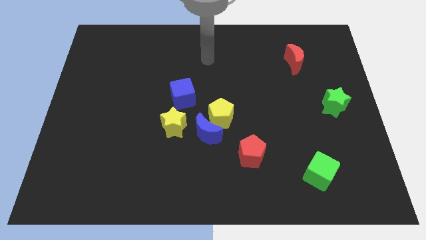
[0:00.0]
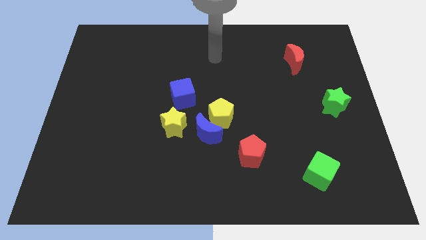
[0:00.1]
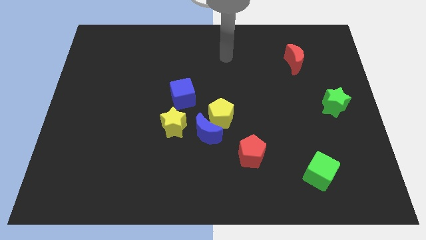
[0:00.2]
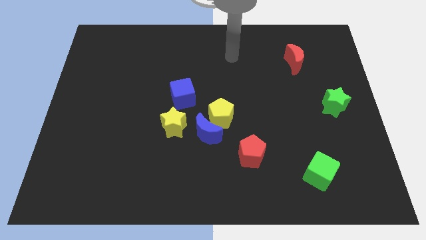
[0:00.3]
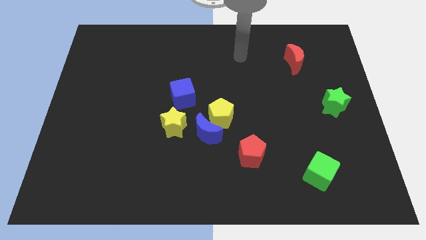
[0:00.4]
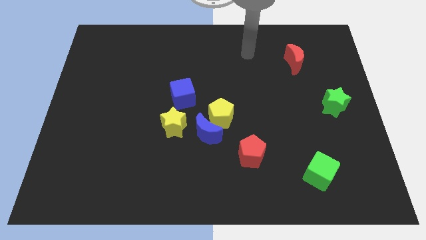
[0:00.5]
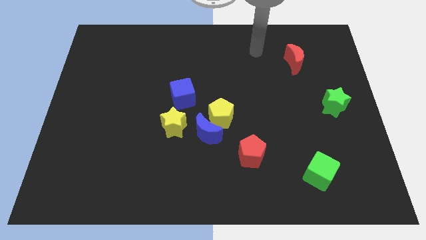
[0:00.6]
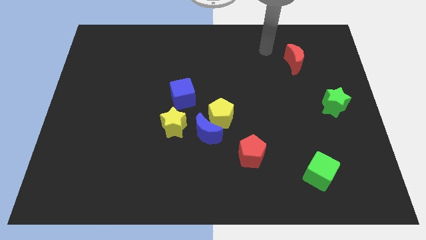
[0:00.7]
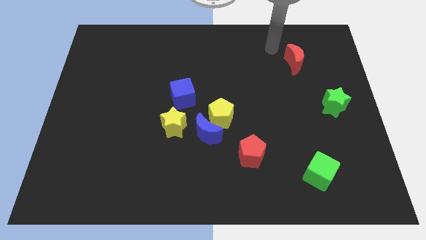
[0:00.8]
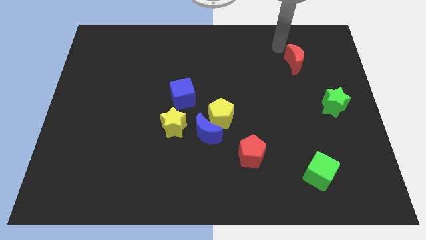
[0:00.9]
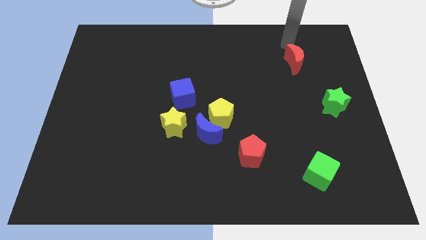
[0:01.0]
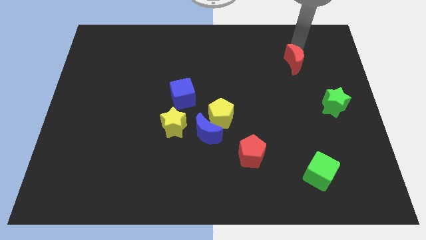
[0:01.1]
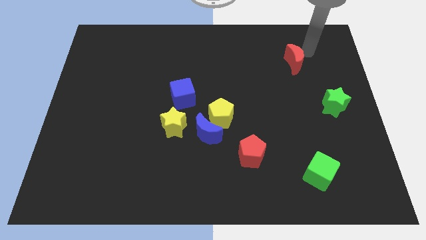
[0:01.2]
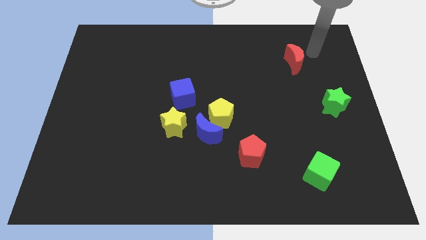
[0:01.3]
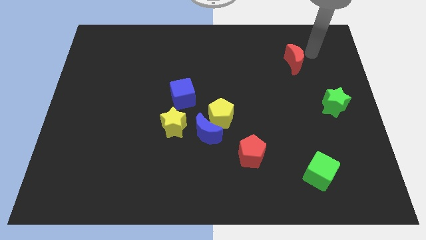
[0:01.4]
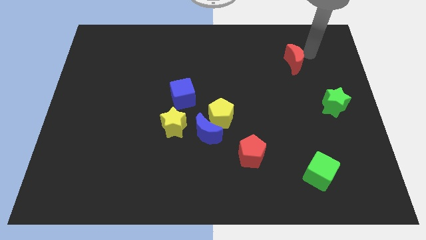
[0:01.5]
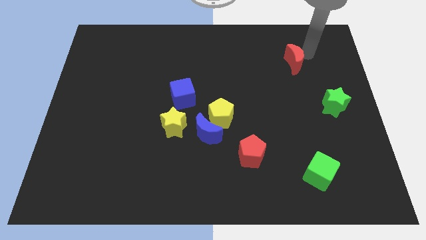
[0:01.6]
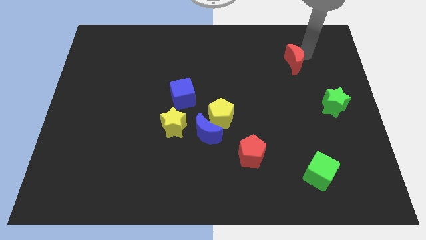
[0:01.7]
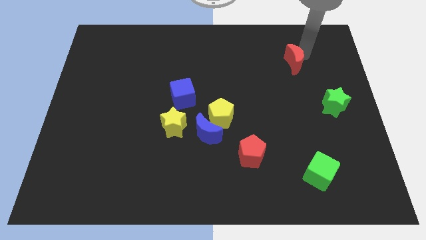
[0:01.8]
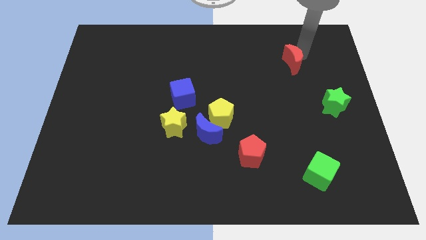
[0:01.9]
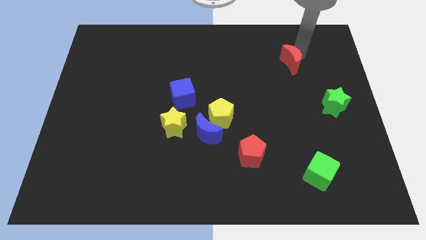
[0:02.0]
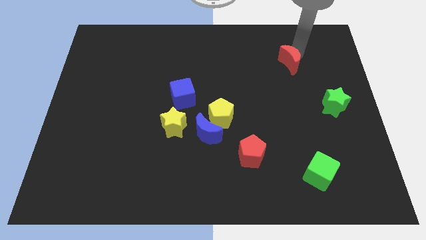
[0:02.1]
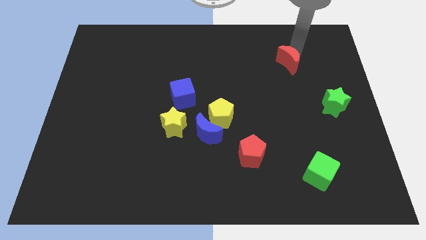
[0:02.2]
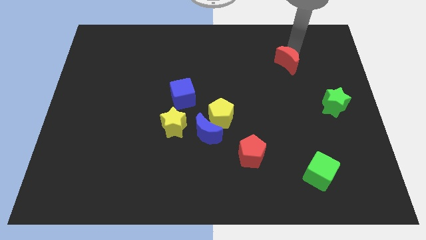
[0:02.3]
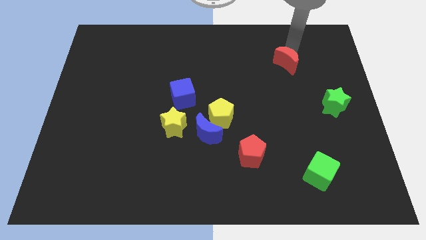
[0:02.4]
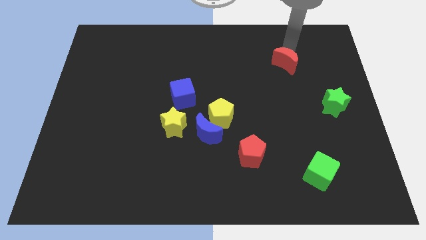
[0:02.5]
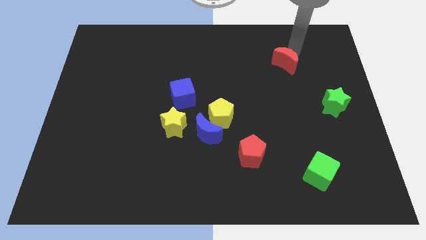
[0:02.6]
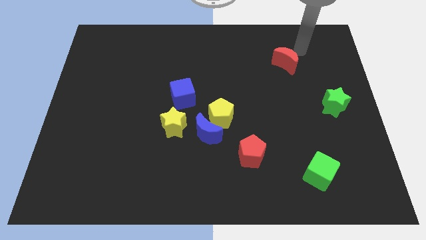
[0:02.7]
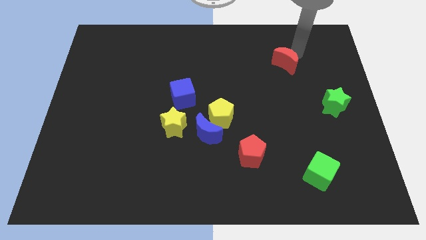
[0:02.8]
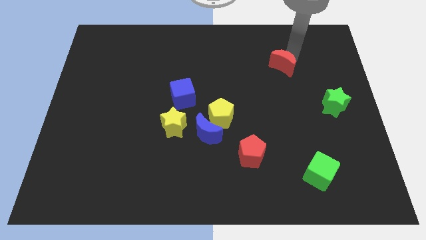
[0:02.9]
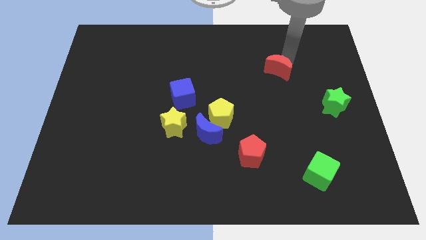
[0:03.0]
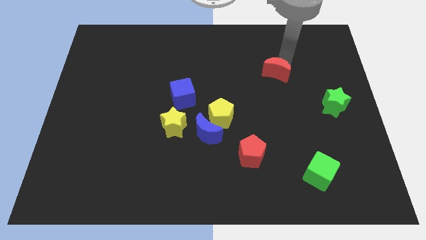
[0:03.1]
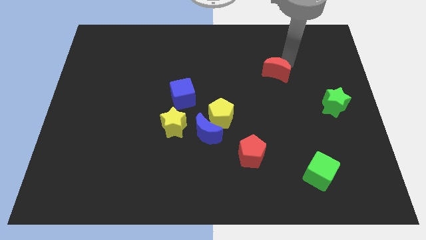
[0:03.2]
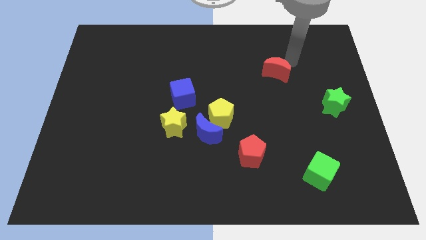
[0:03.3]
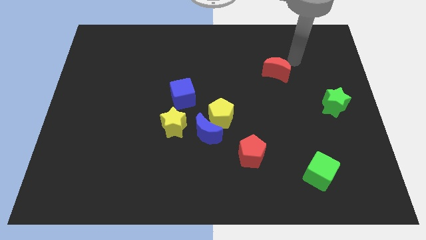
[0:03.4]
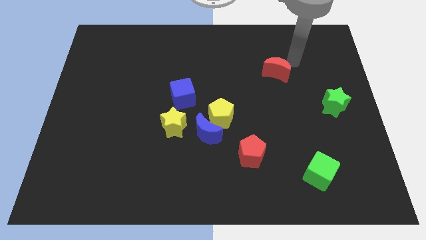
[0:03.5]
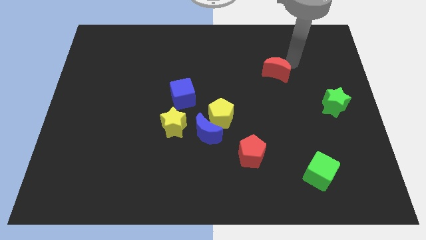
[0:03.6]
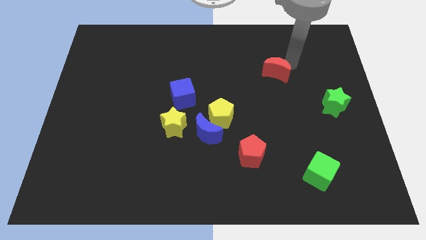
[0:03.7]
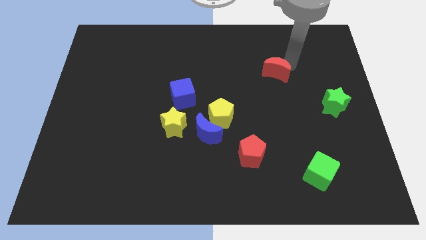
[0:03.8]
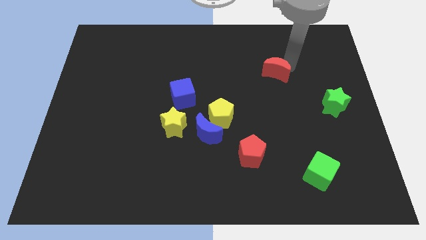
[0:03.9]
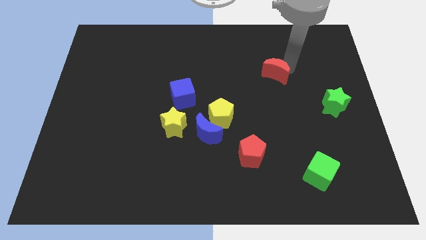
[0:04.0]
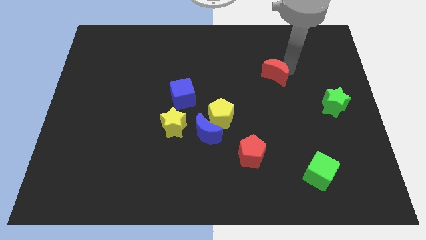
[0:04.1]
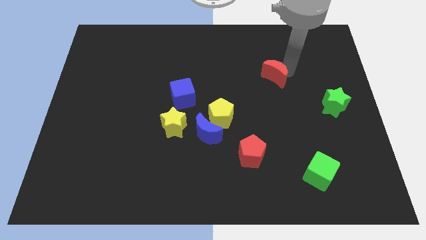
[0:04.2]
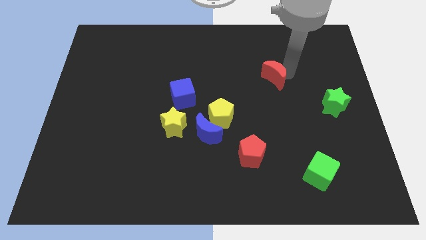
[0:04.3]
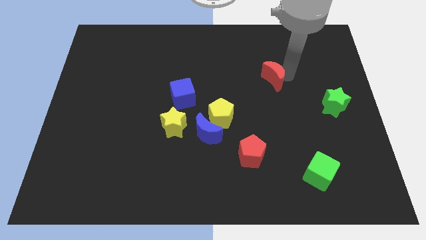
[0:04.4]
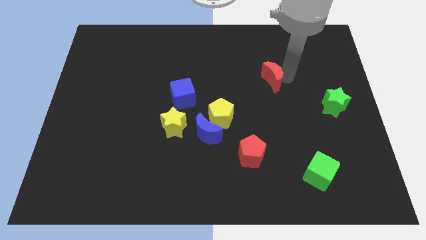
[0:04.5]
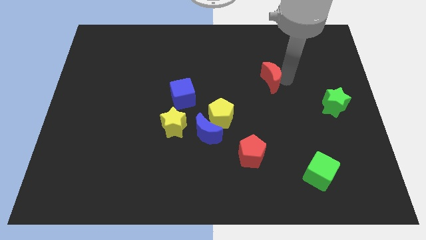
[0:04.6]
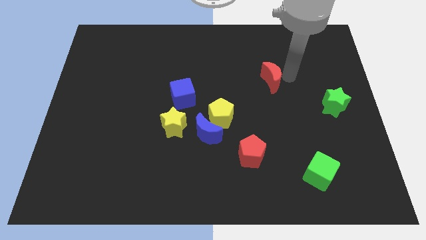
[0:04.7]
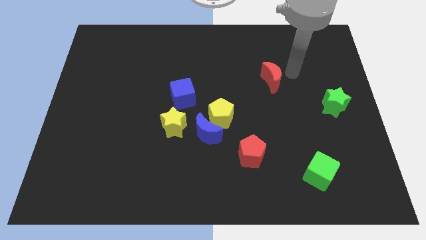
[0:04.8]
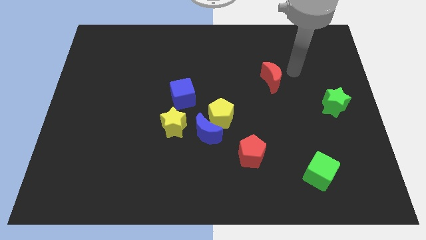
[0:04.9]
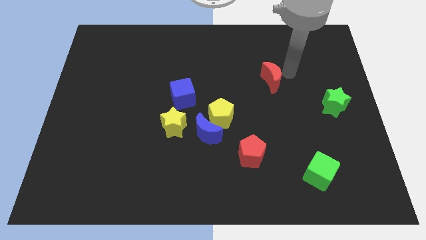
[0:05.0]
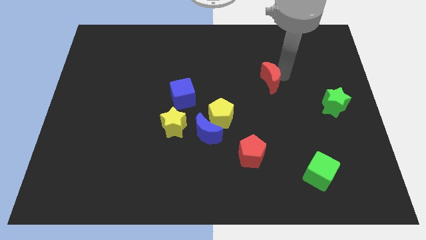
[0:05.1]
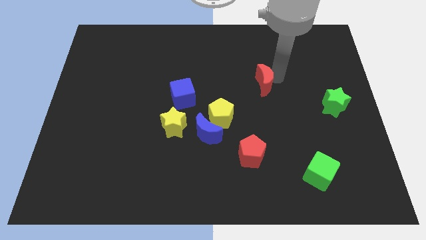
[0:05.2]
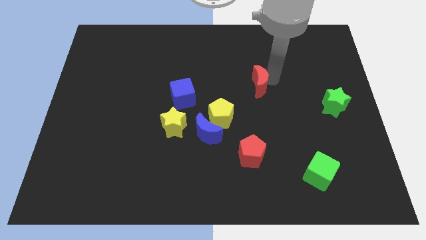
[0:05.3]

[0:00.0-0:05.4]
push the red moon to the center of the board

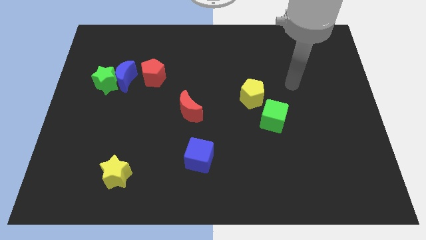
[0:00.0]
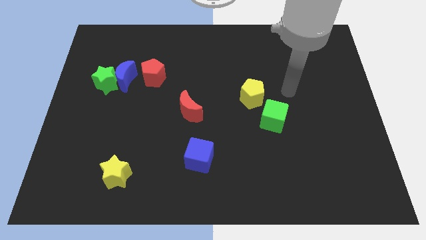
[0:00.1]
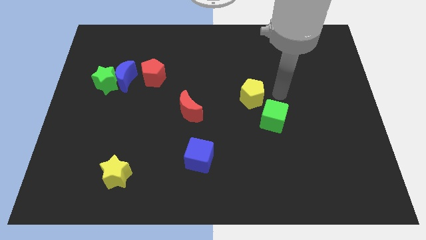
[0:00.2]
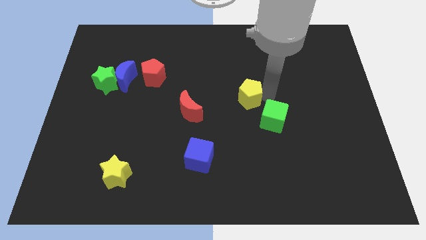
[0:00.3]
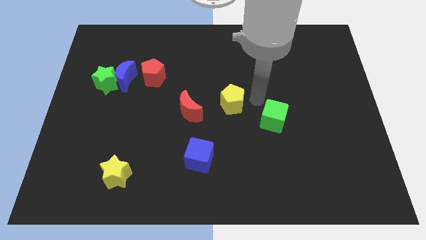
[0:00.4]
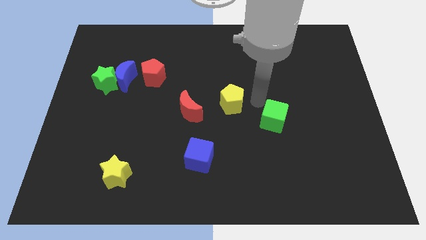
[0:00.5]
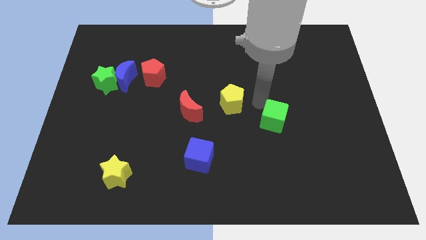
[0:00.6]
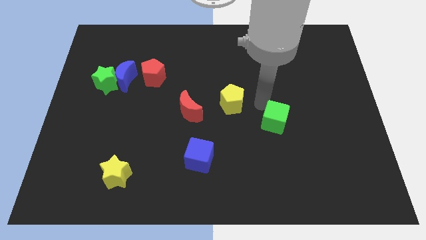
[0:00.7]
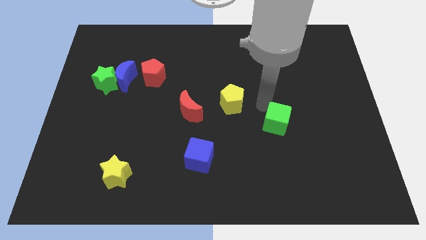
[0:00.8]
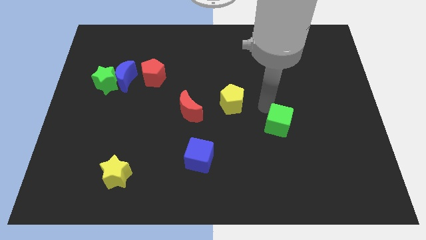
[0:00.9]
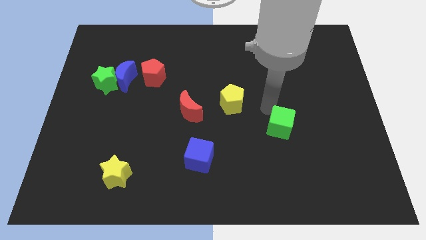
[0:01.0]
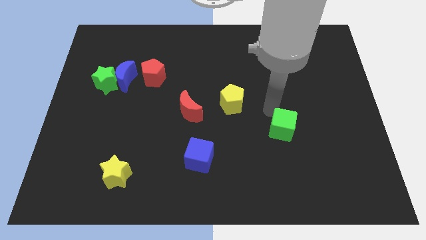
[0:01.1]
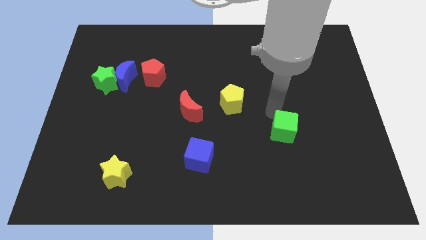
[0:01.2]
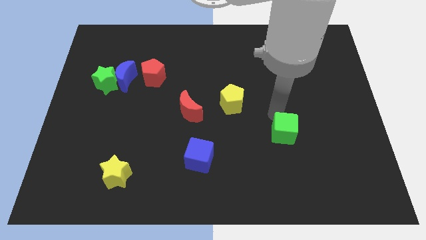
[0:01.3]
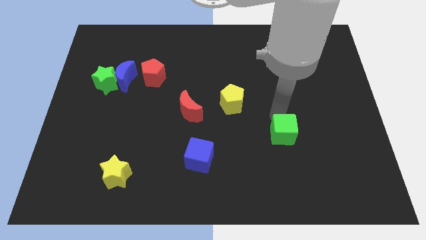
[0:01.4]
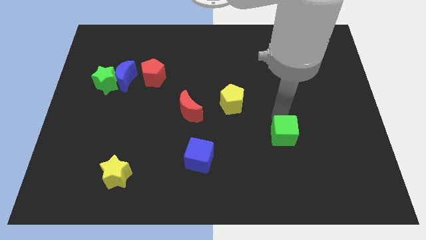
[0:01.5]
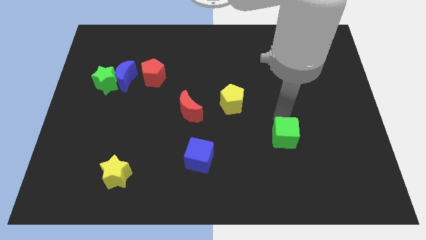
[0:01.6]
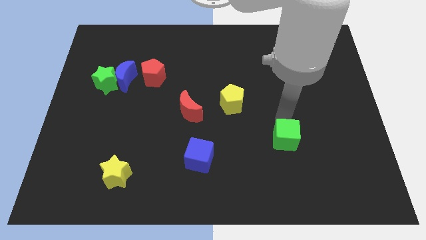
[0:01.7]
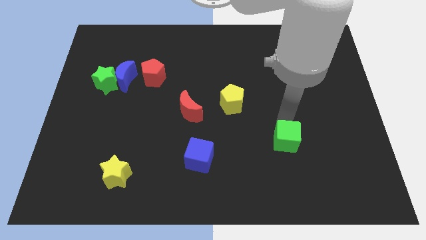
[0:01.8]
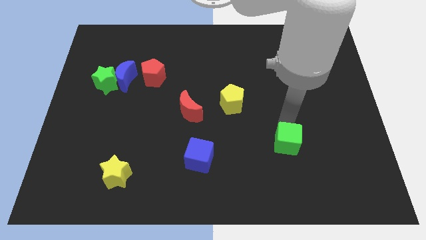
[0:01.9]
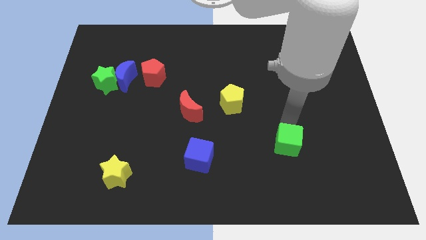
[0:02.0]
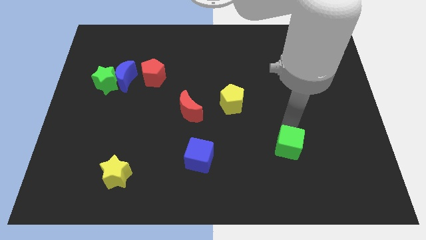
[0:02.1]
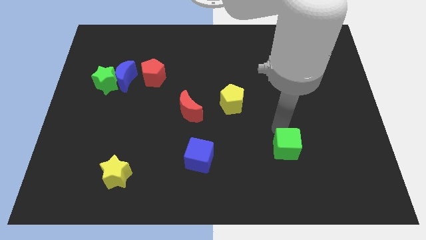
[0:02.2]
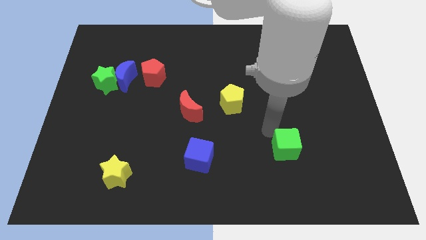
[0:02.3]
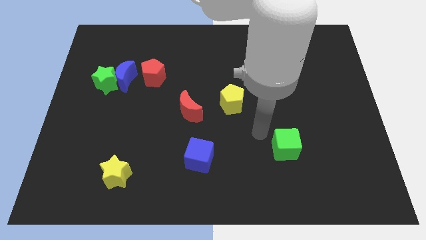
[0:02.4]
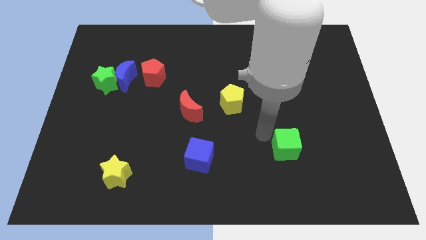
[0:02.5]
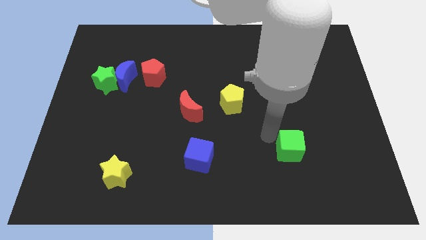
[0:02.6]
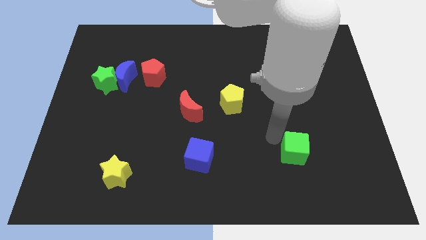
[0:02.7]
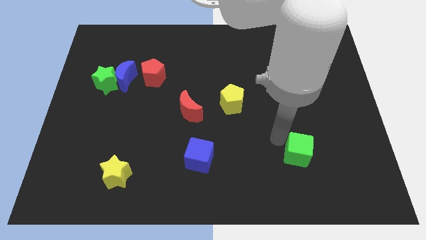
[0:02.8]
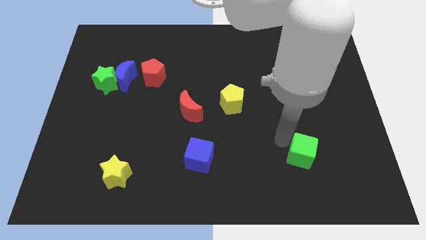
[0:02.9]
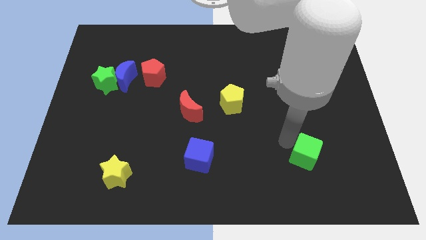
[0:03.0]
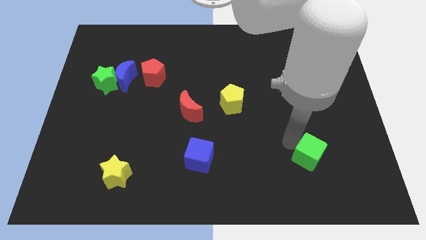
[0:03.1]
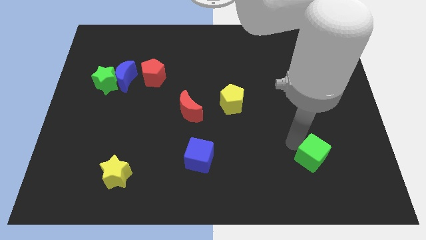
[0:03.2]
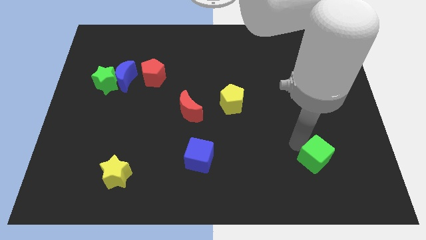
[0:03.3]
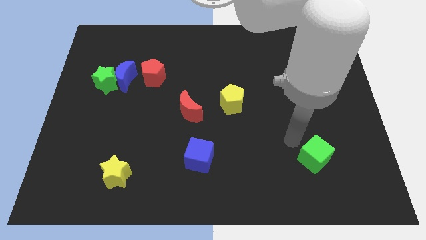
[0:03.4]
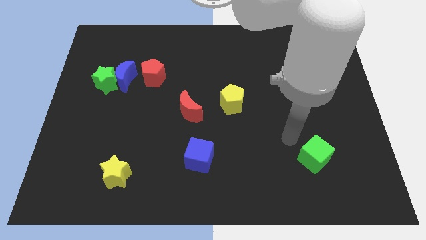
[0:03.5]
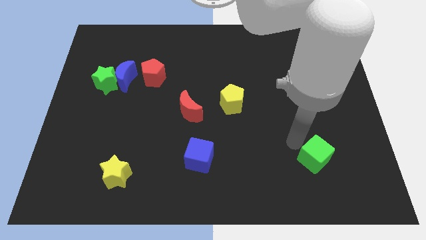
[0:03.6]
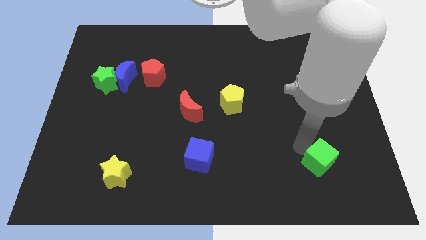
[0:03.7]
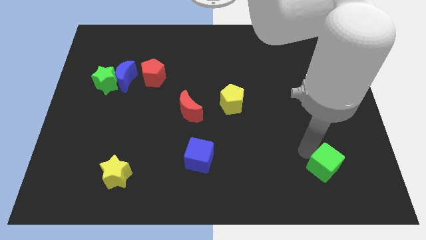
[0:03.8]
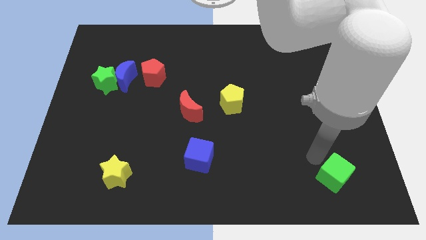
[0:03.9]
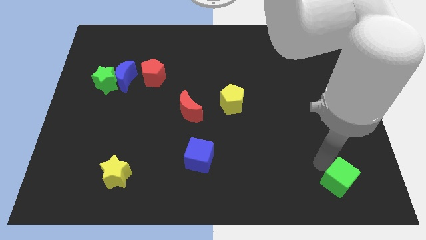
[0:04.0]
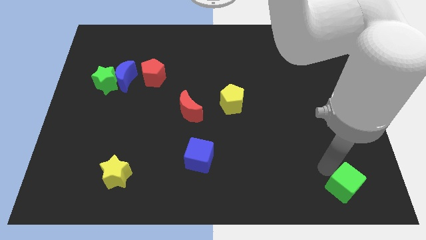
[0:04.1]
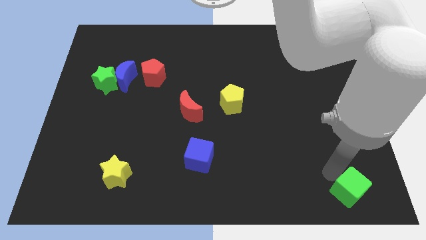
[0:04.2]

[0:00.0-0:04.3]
put the green cube to the lower right corner
